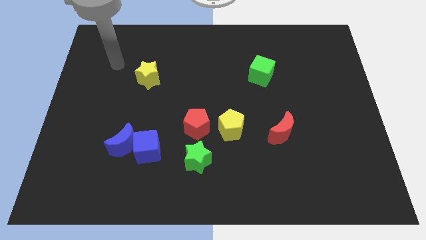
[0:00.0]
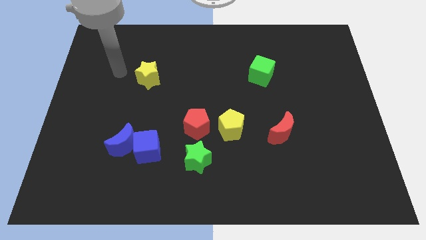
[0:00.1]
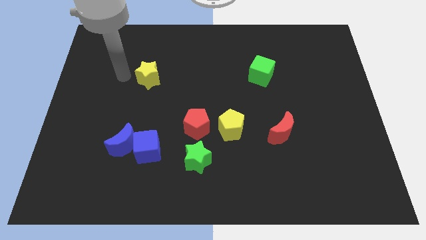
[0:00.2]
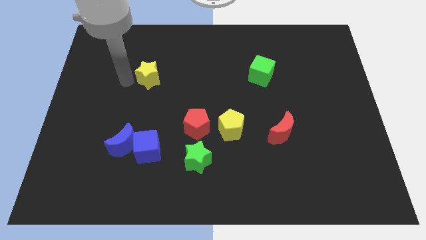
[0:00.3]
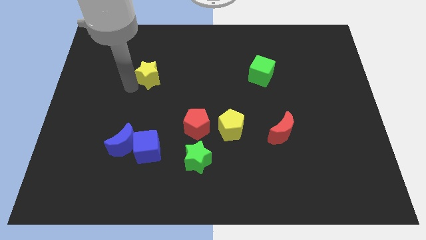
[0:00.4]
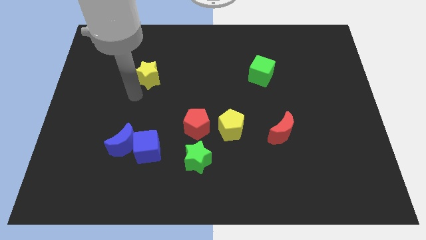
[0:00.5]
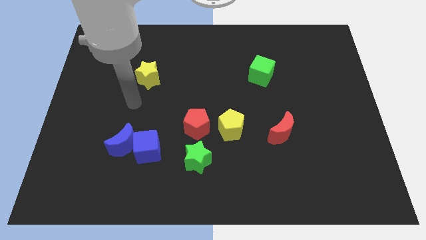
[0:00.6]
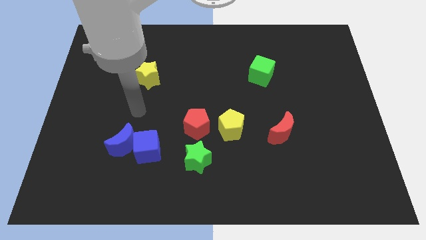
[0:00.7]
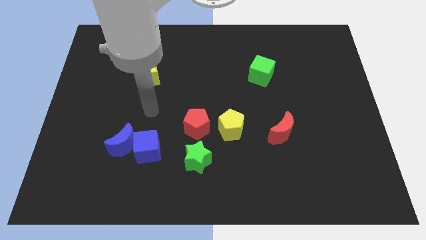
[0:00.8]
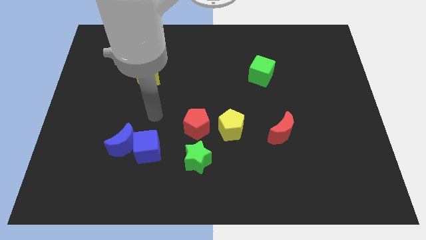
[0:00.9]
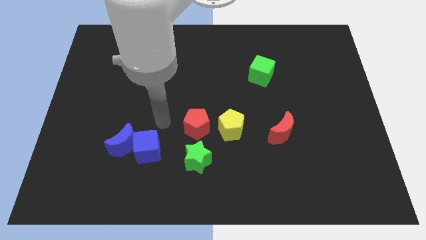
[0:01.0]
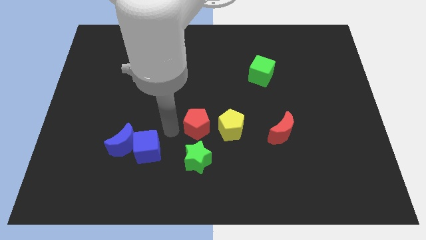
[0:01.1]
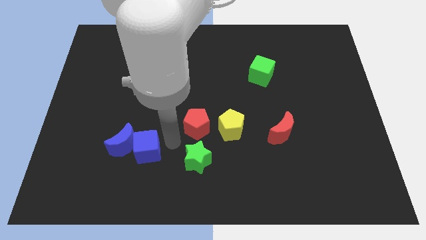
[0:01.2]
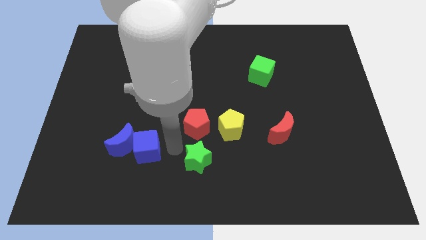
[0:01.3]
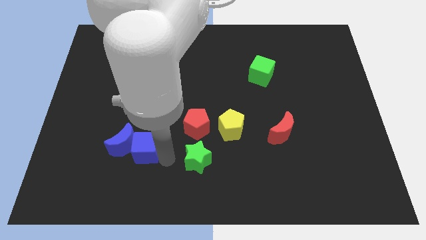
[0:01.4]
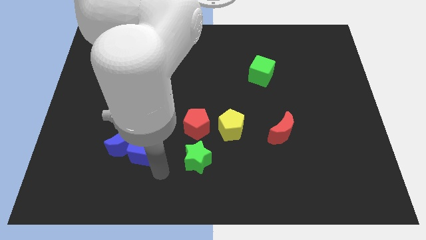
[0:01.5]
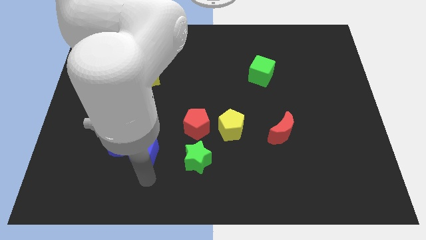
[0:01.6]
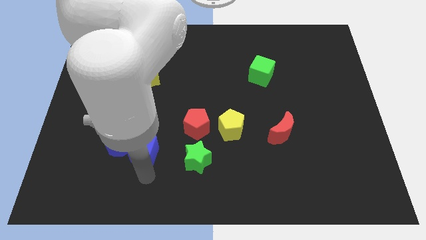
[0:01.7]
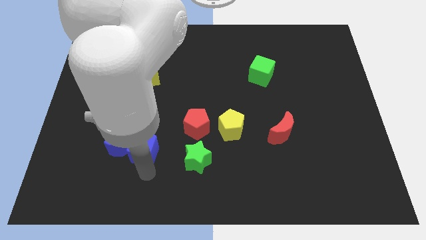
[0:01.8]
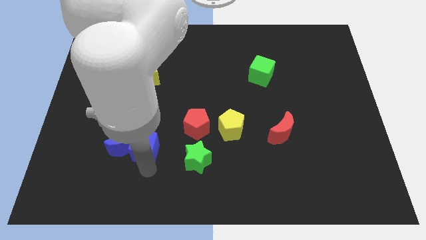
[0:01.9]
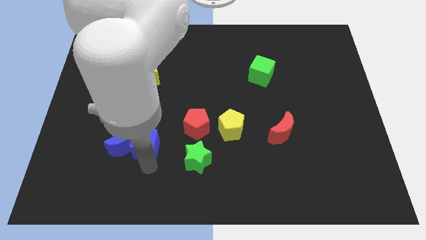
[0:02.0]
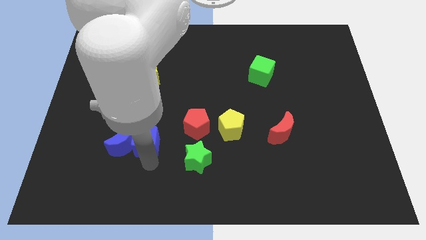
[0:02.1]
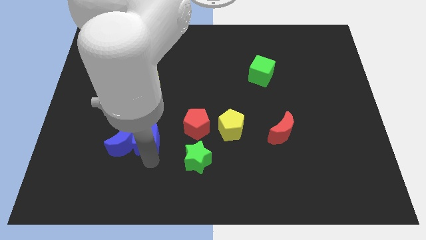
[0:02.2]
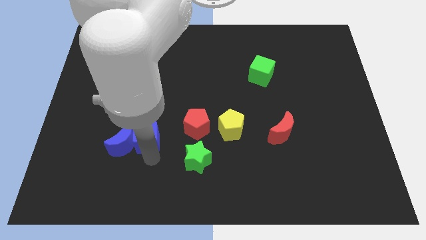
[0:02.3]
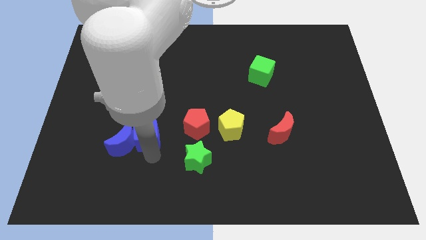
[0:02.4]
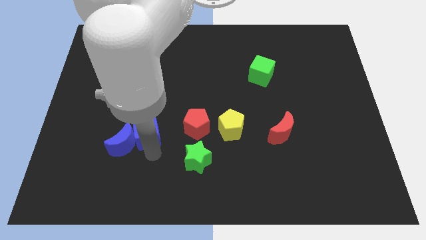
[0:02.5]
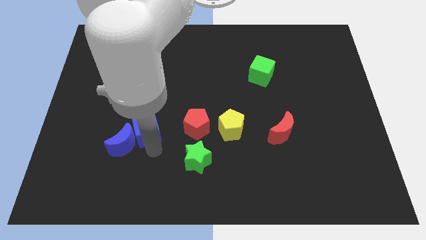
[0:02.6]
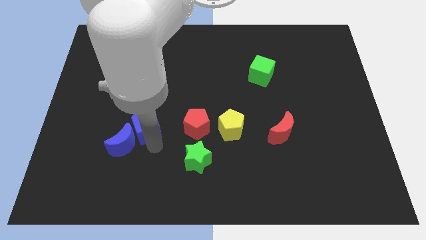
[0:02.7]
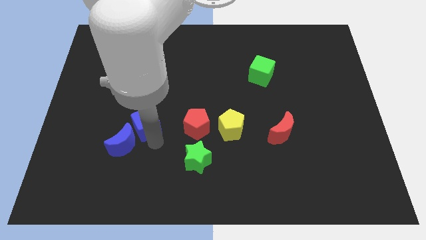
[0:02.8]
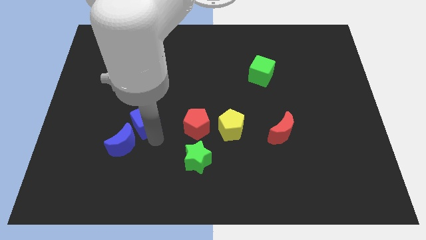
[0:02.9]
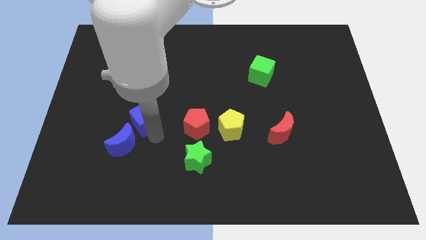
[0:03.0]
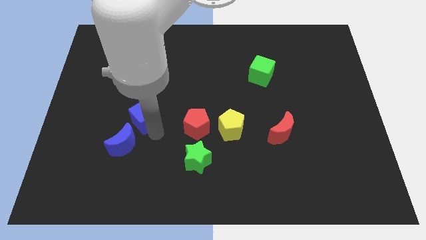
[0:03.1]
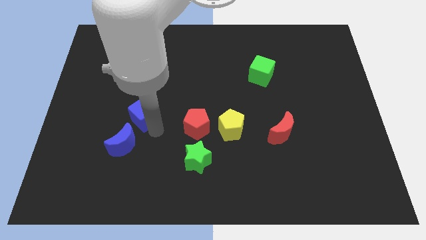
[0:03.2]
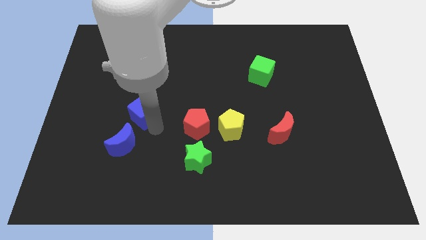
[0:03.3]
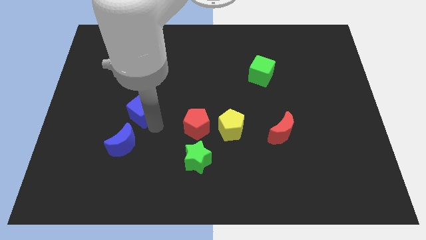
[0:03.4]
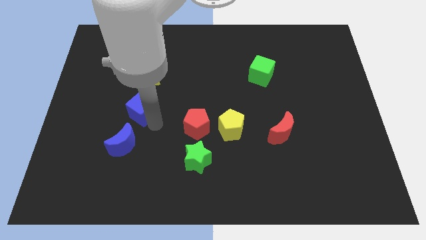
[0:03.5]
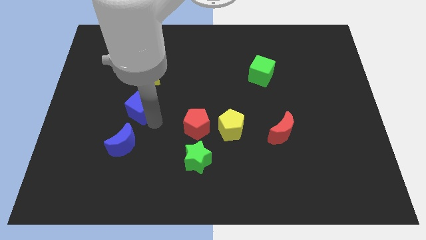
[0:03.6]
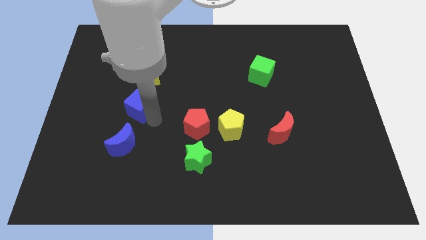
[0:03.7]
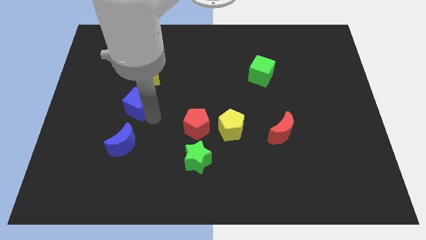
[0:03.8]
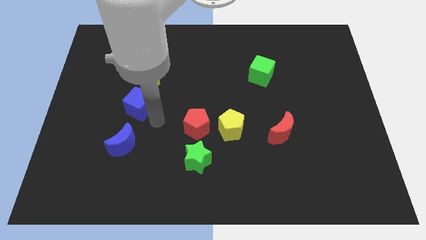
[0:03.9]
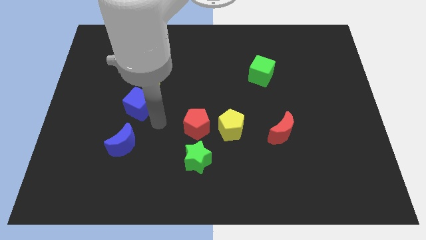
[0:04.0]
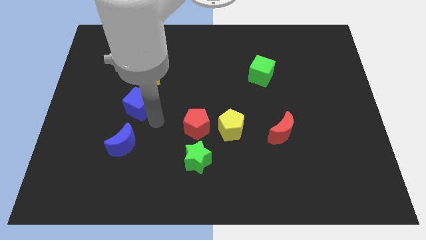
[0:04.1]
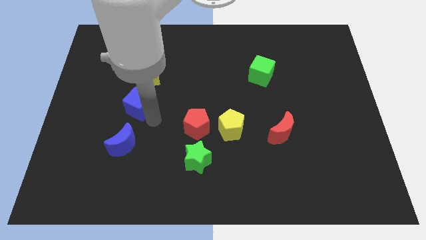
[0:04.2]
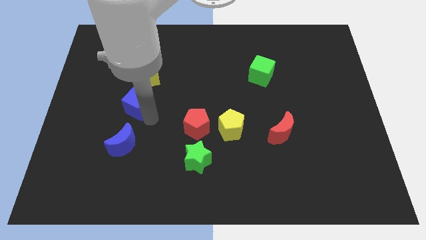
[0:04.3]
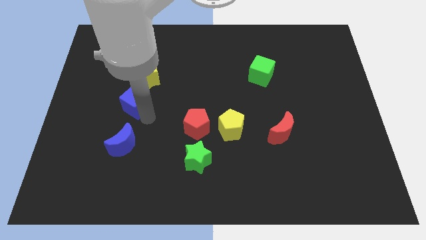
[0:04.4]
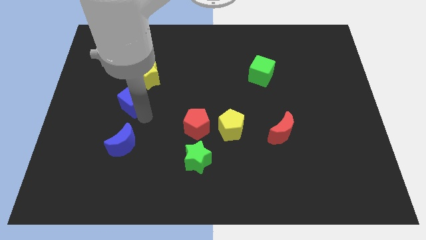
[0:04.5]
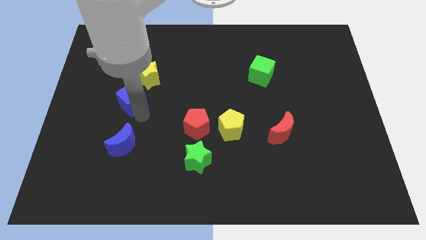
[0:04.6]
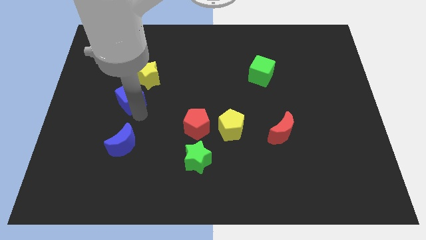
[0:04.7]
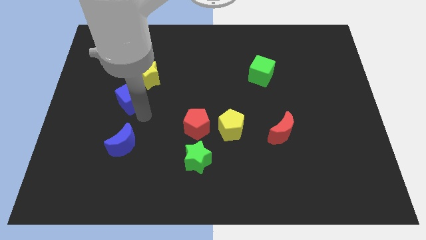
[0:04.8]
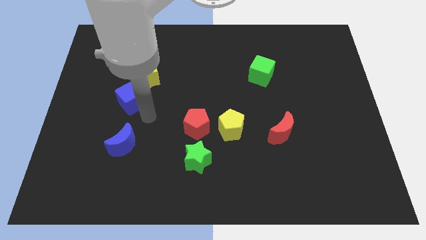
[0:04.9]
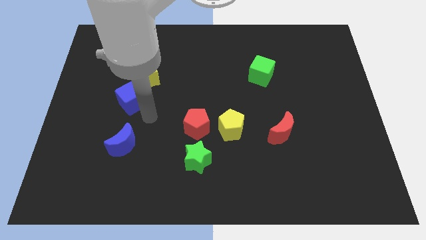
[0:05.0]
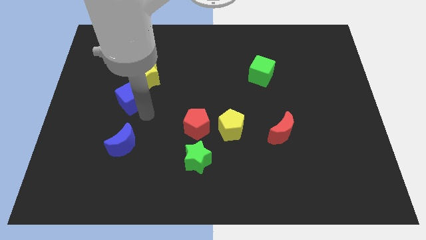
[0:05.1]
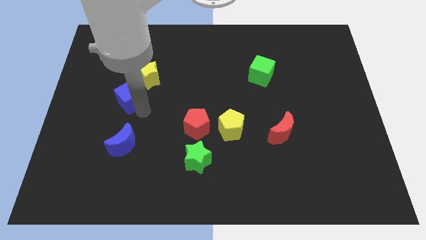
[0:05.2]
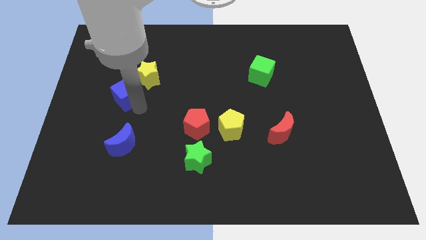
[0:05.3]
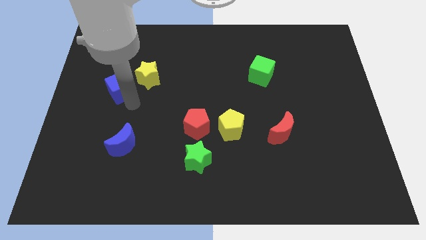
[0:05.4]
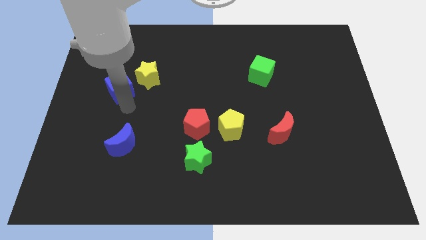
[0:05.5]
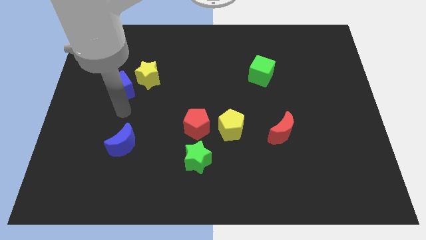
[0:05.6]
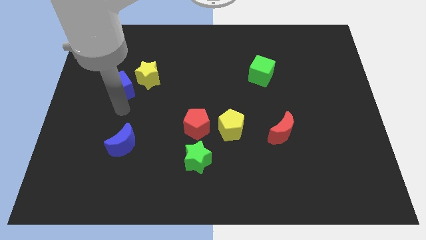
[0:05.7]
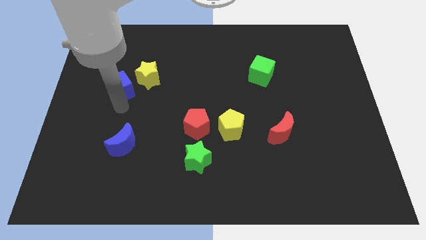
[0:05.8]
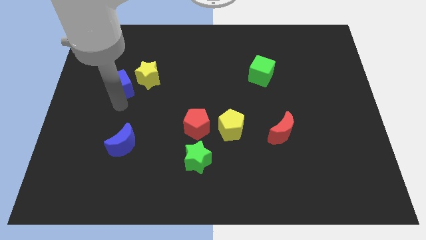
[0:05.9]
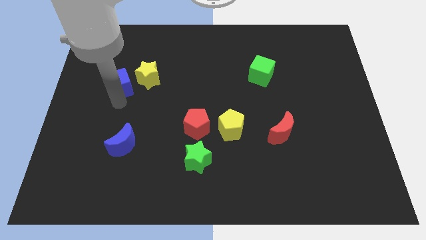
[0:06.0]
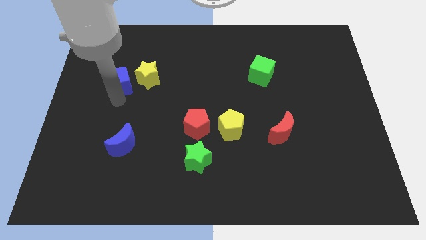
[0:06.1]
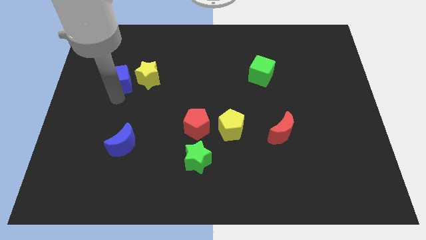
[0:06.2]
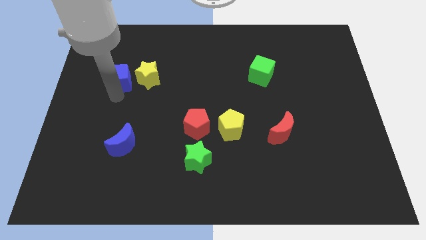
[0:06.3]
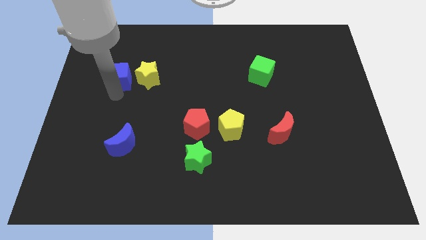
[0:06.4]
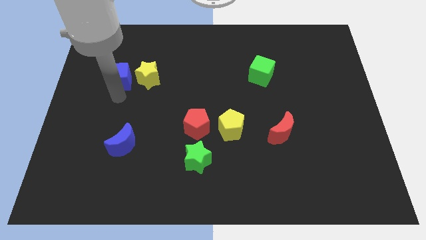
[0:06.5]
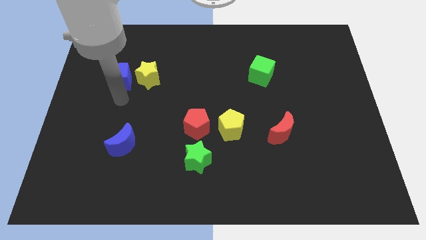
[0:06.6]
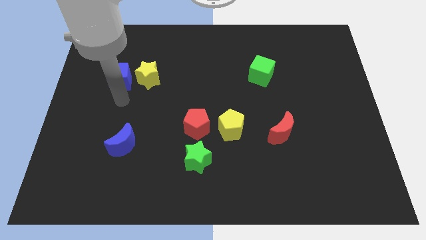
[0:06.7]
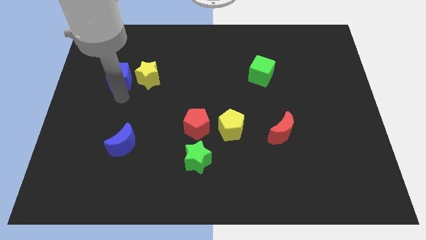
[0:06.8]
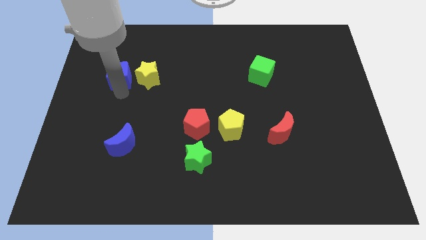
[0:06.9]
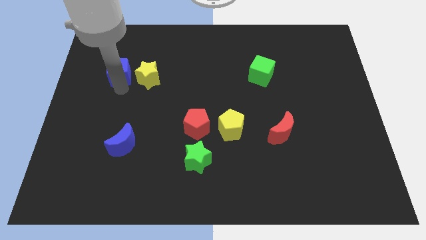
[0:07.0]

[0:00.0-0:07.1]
slide the blue cube to the top left side of the yellow star
